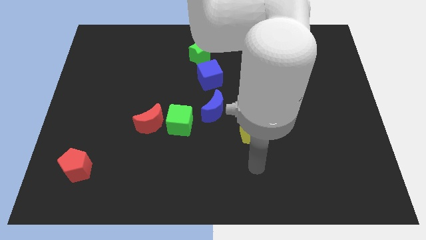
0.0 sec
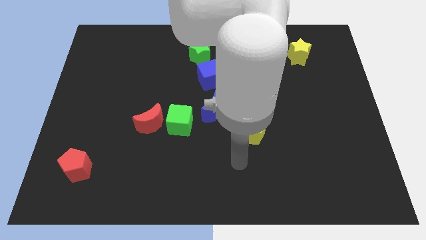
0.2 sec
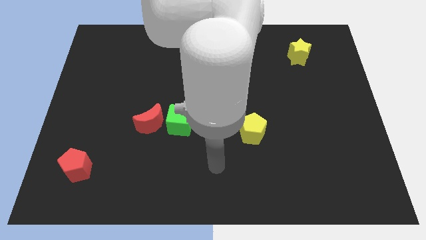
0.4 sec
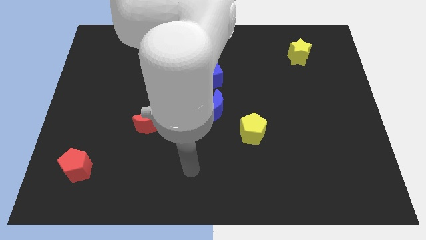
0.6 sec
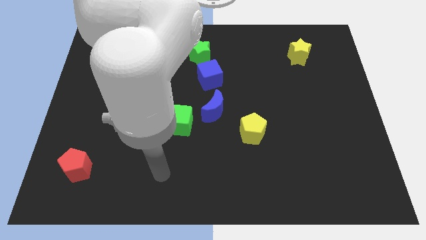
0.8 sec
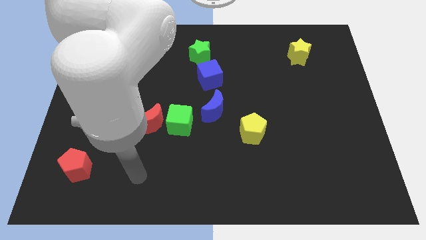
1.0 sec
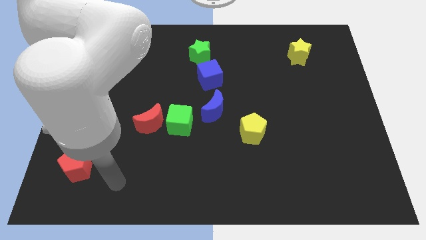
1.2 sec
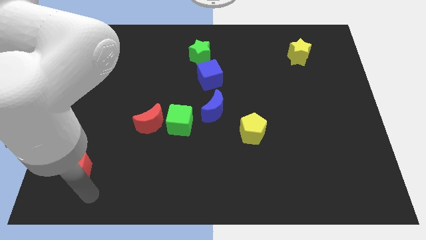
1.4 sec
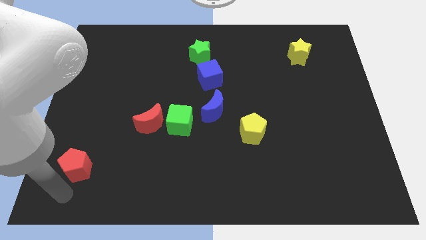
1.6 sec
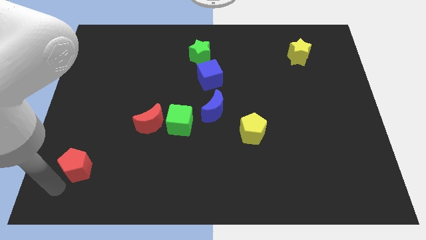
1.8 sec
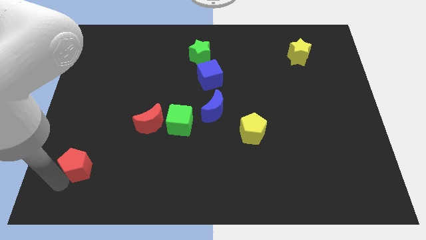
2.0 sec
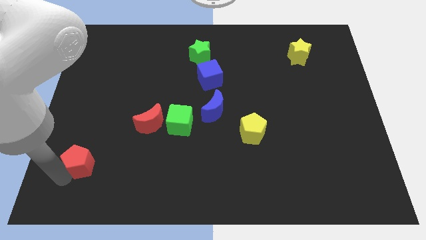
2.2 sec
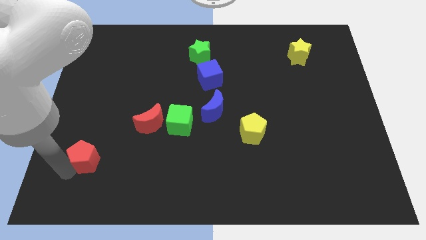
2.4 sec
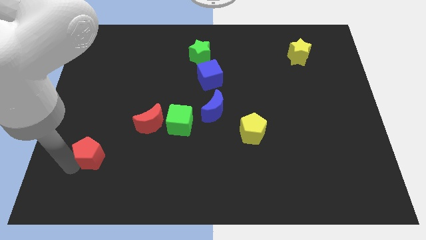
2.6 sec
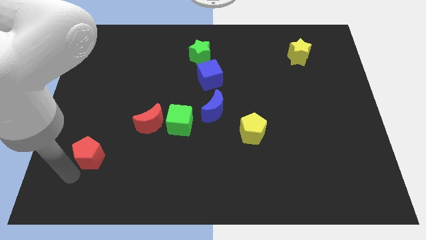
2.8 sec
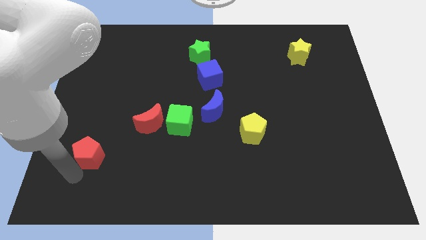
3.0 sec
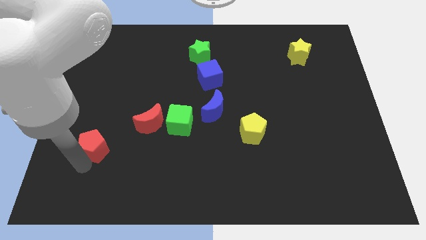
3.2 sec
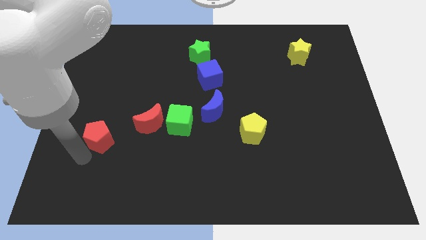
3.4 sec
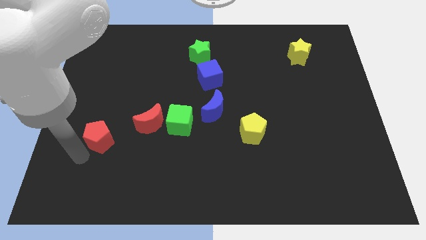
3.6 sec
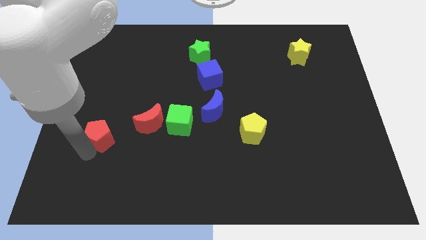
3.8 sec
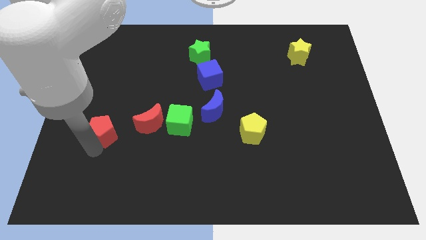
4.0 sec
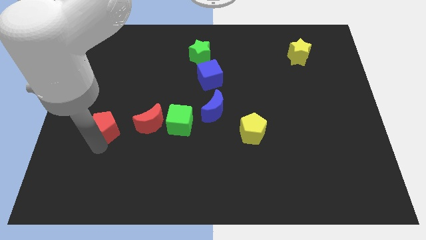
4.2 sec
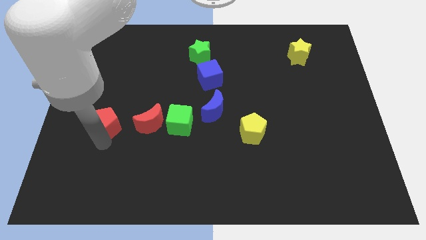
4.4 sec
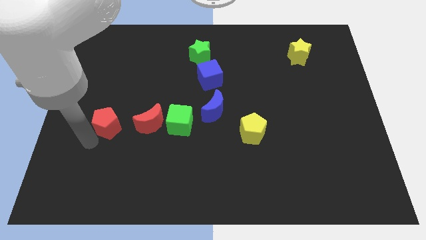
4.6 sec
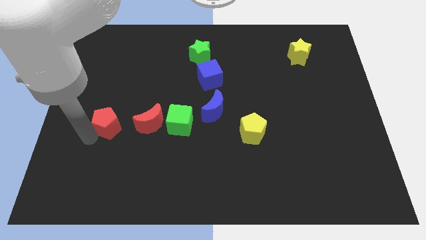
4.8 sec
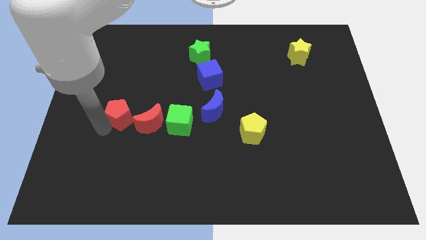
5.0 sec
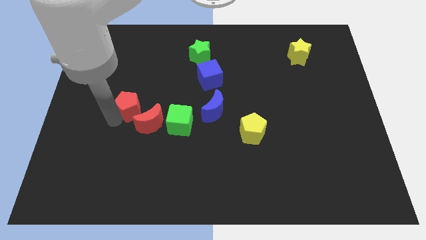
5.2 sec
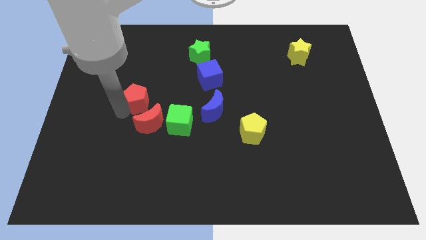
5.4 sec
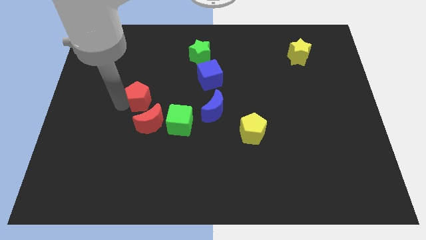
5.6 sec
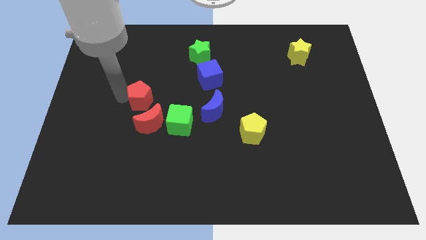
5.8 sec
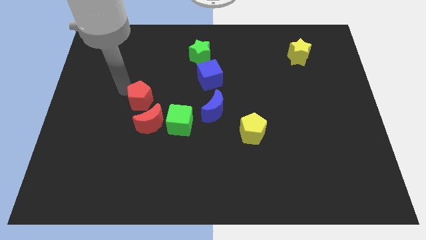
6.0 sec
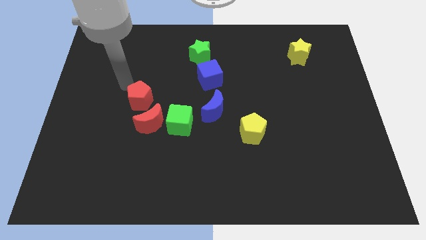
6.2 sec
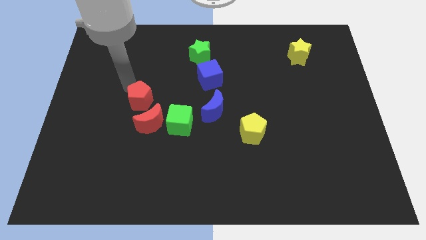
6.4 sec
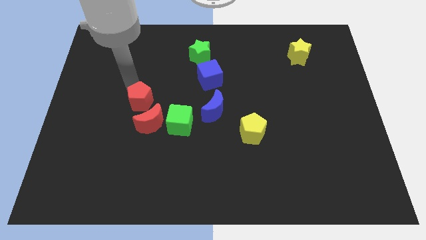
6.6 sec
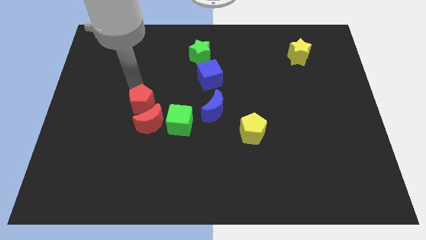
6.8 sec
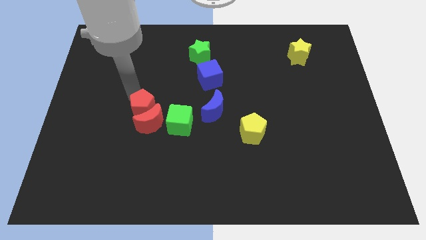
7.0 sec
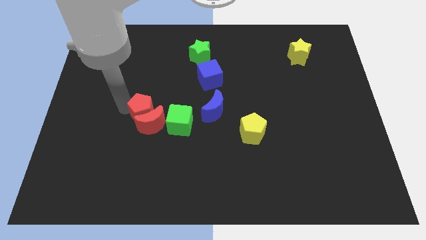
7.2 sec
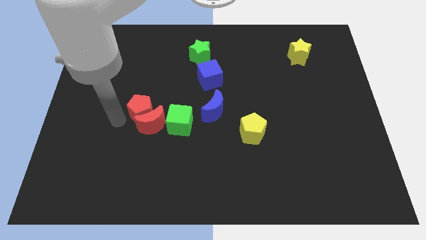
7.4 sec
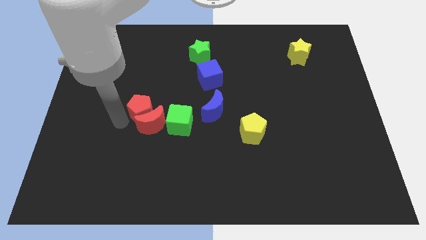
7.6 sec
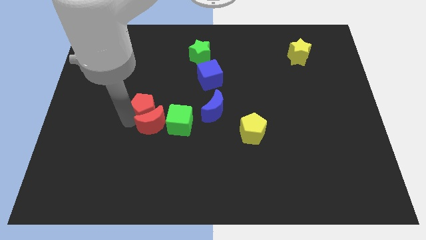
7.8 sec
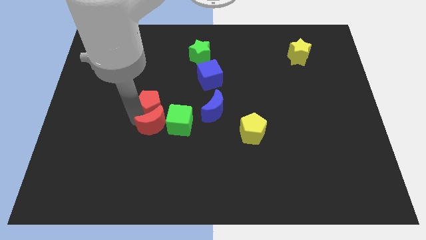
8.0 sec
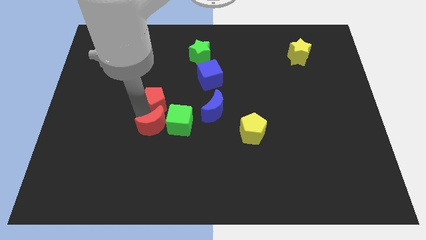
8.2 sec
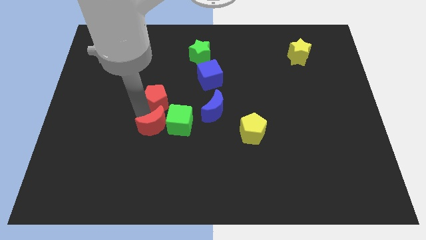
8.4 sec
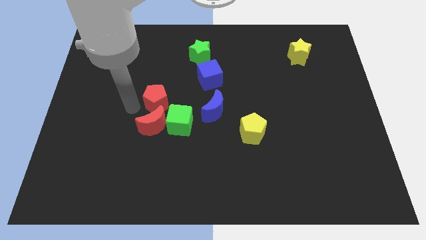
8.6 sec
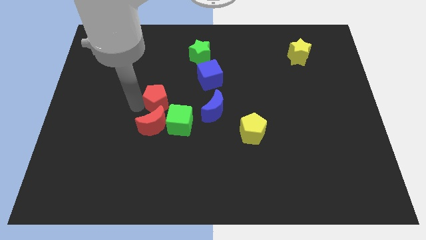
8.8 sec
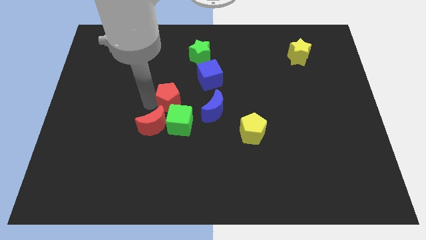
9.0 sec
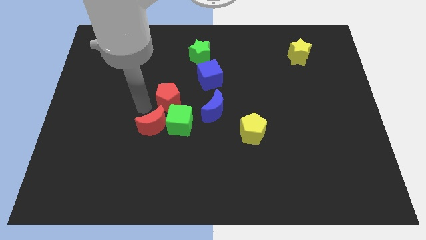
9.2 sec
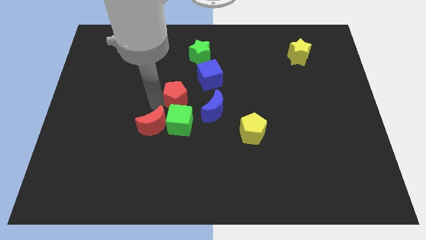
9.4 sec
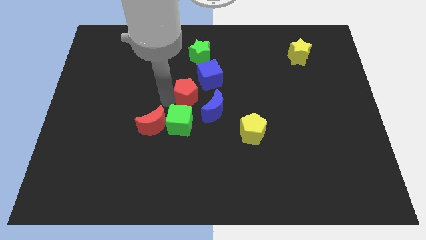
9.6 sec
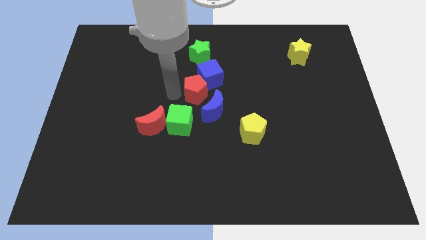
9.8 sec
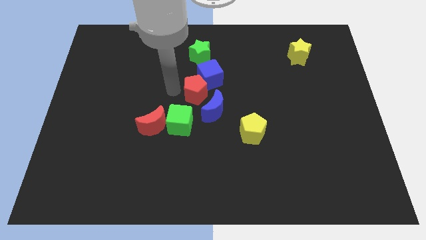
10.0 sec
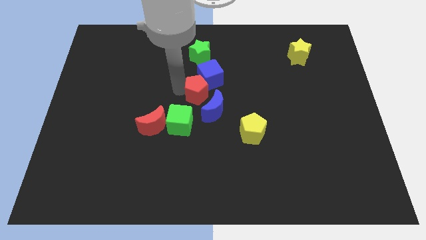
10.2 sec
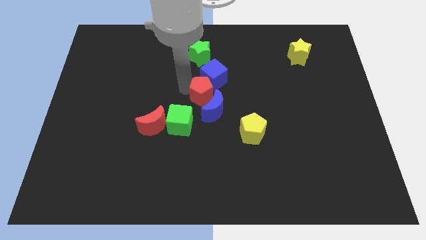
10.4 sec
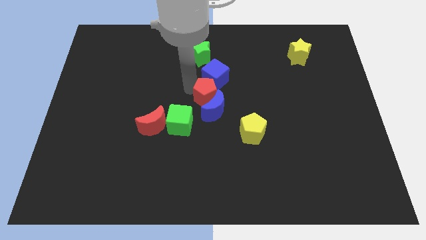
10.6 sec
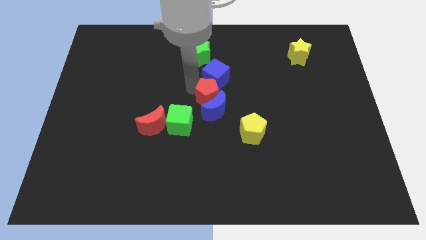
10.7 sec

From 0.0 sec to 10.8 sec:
push the red pentagon diagonally up and to the right of the blue moon

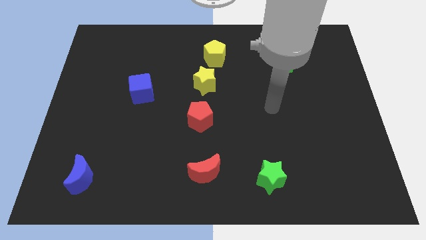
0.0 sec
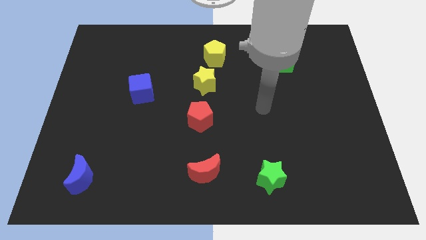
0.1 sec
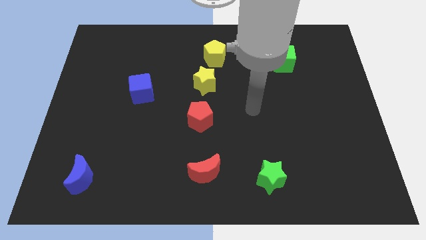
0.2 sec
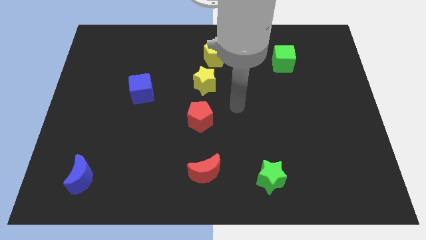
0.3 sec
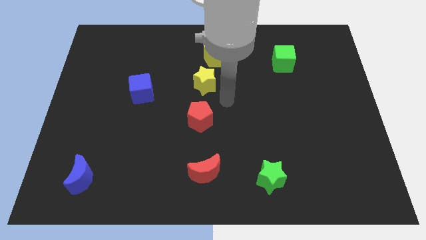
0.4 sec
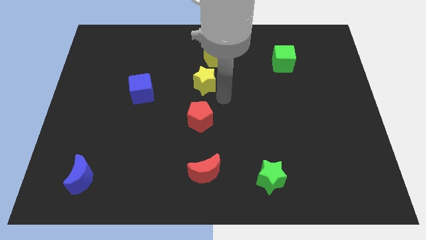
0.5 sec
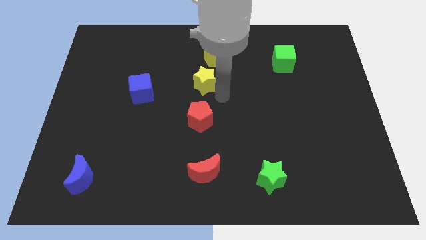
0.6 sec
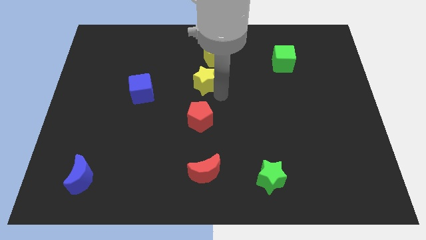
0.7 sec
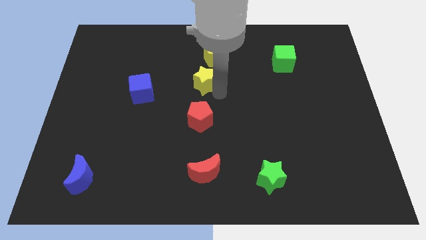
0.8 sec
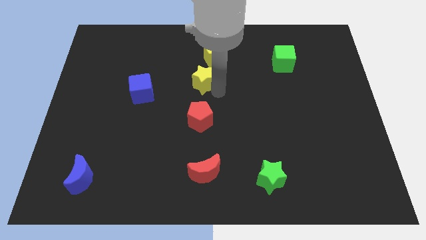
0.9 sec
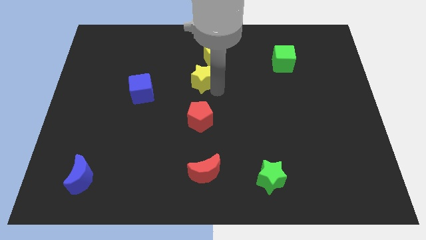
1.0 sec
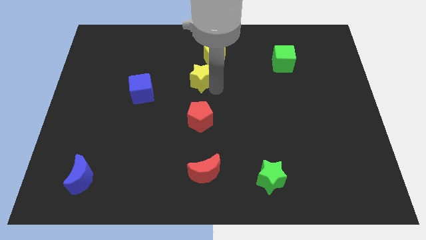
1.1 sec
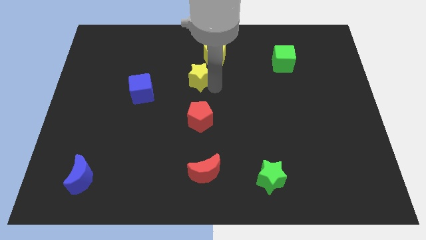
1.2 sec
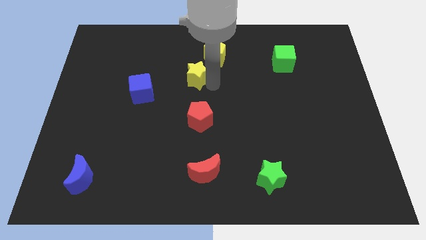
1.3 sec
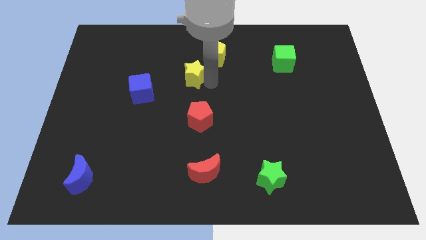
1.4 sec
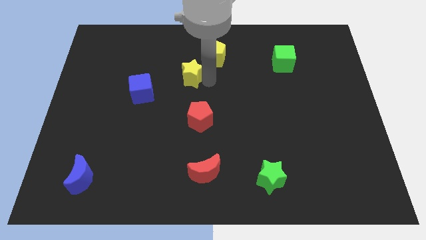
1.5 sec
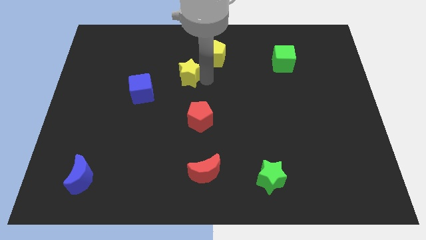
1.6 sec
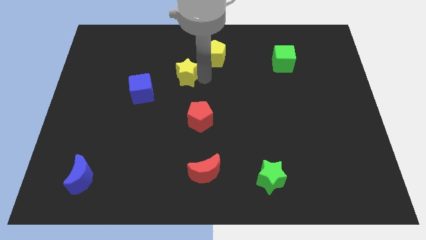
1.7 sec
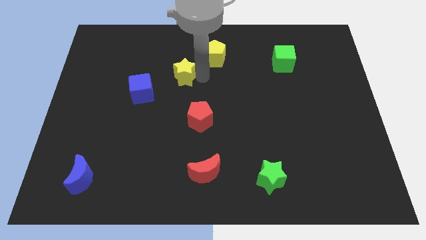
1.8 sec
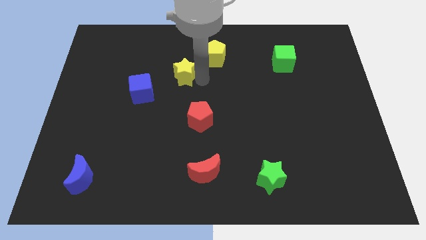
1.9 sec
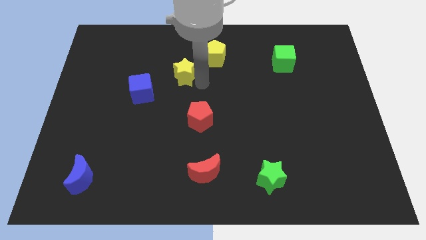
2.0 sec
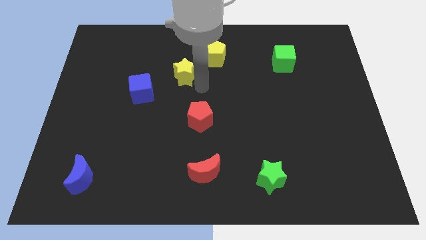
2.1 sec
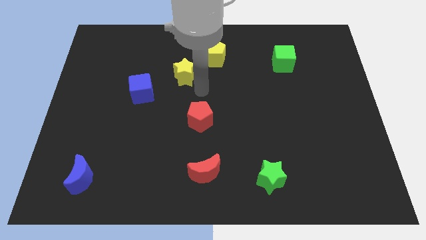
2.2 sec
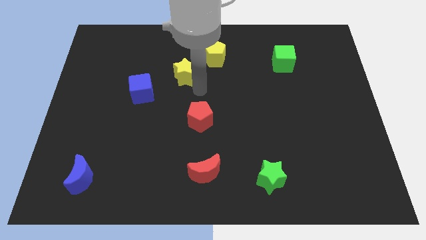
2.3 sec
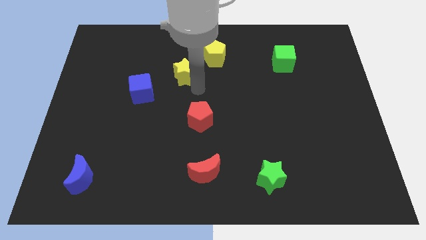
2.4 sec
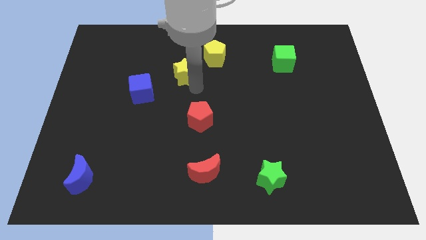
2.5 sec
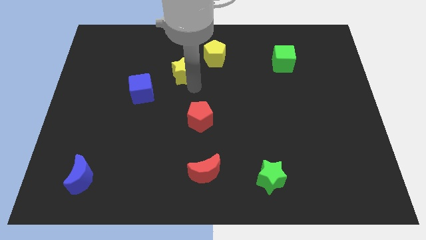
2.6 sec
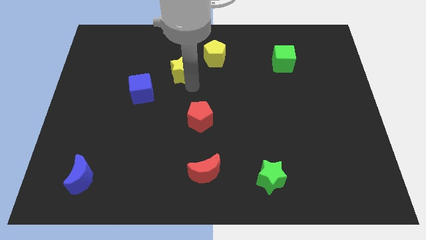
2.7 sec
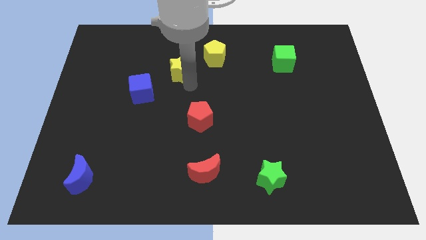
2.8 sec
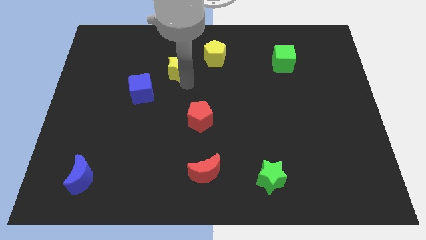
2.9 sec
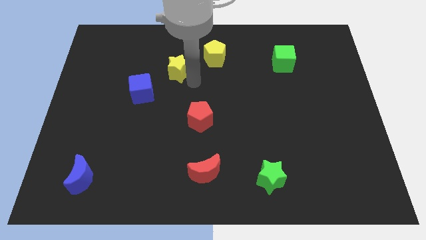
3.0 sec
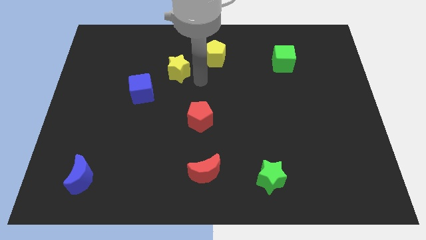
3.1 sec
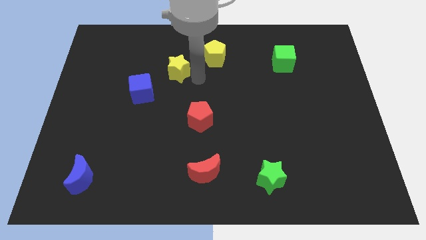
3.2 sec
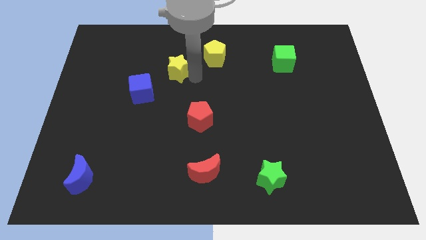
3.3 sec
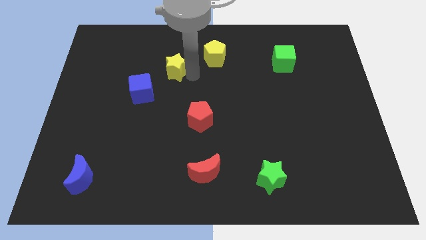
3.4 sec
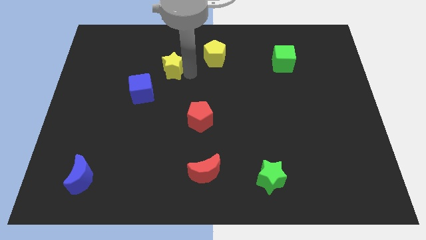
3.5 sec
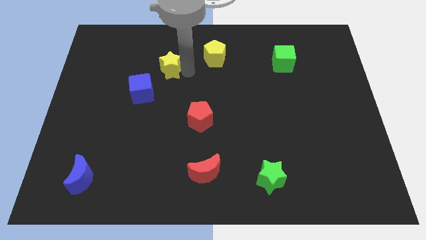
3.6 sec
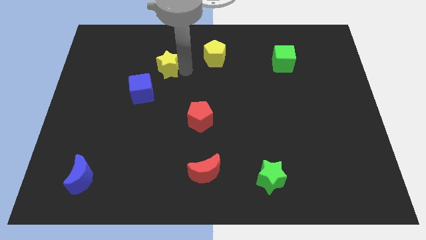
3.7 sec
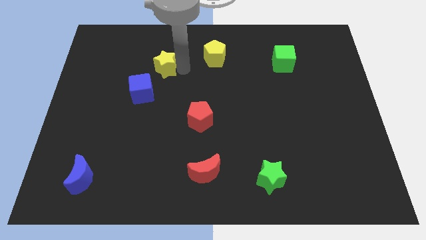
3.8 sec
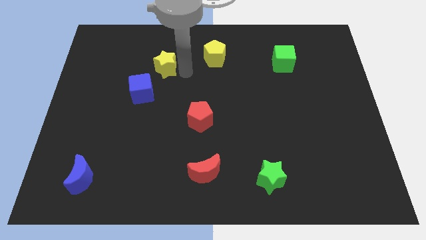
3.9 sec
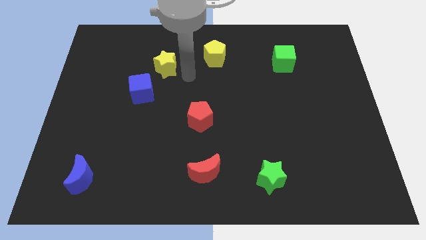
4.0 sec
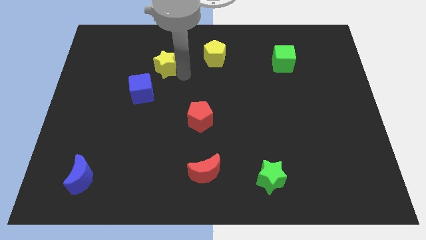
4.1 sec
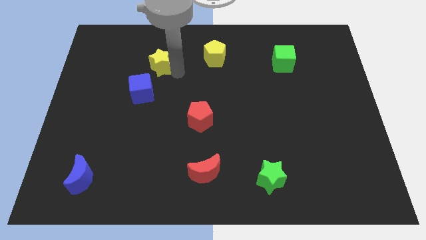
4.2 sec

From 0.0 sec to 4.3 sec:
push the yellow star to the top side of the blue cube
